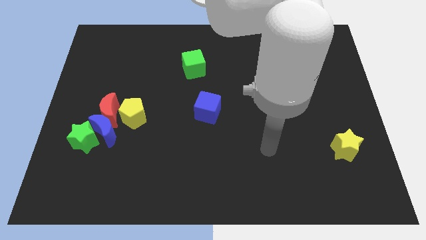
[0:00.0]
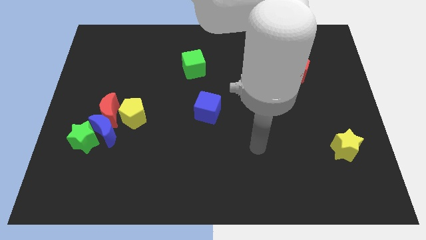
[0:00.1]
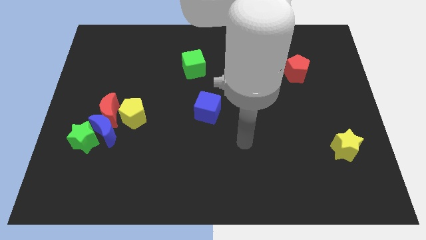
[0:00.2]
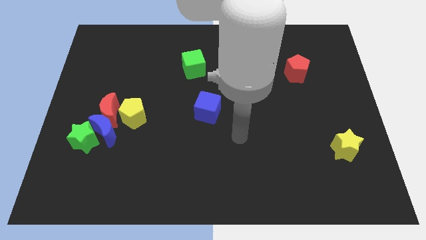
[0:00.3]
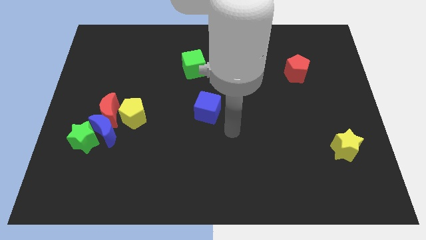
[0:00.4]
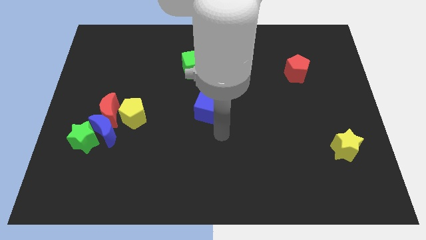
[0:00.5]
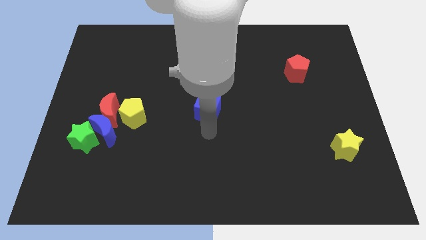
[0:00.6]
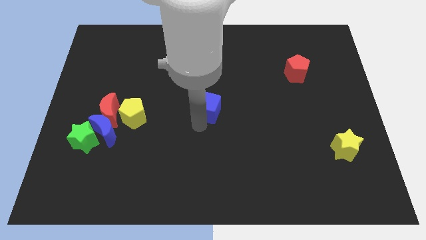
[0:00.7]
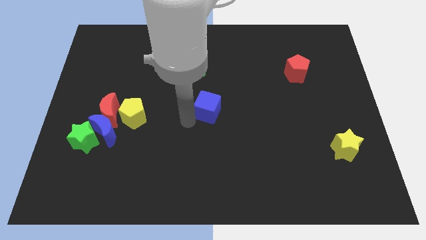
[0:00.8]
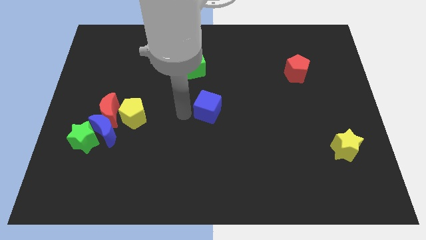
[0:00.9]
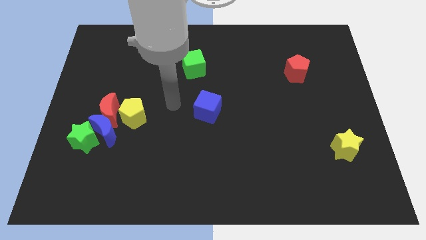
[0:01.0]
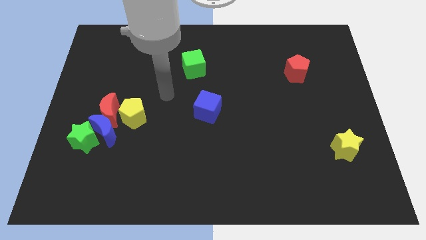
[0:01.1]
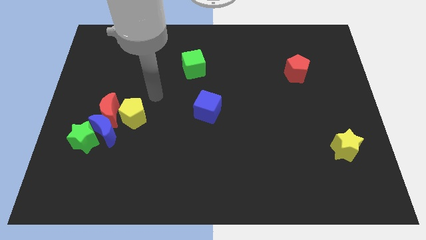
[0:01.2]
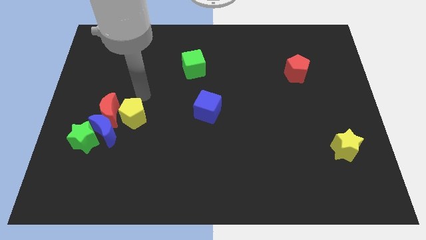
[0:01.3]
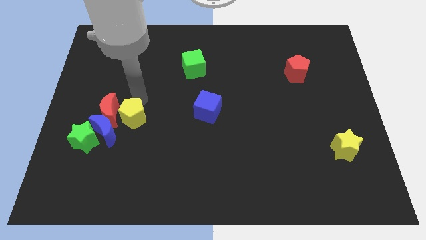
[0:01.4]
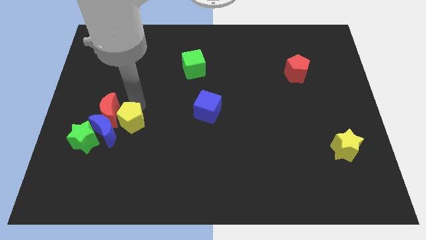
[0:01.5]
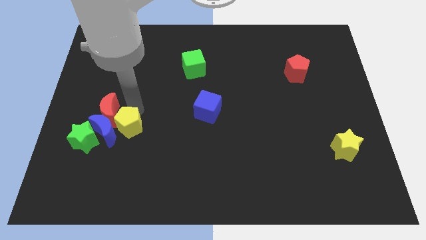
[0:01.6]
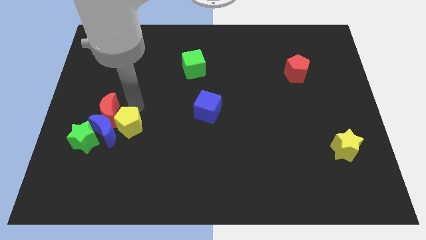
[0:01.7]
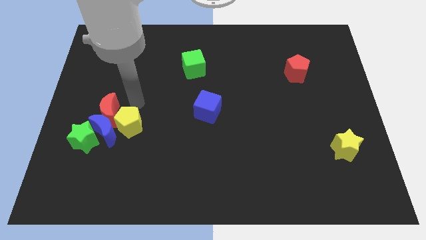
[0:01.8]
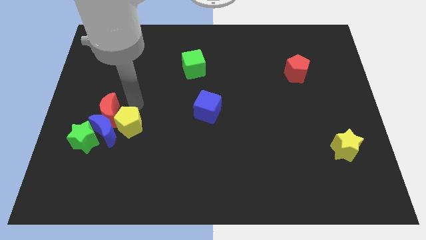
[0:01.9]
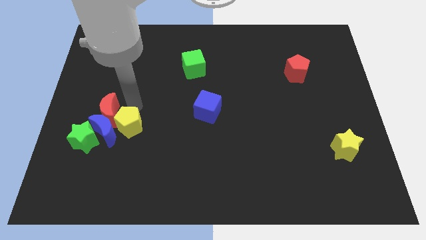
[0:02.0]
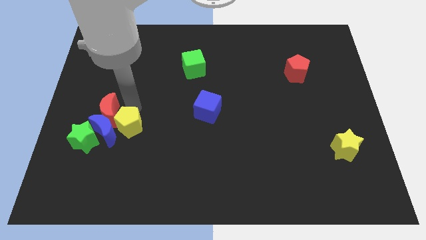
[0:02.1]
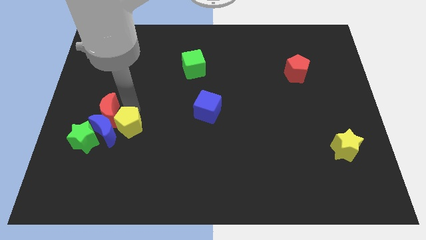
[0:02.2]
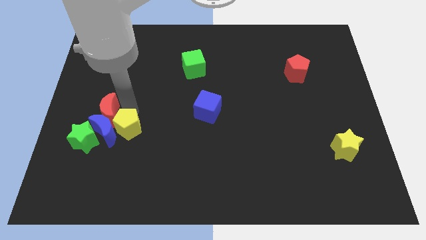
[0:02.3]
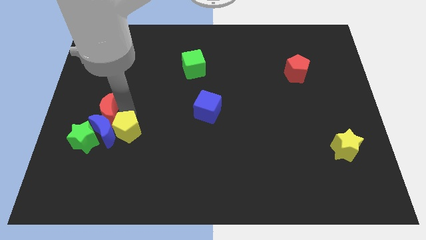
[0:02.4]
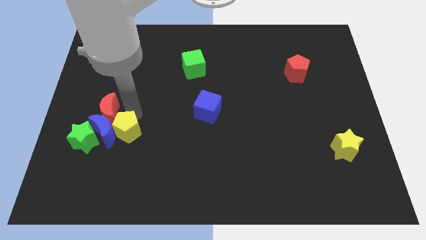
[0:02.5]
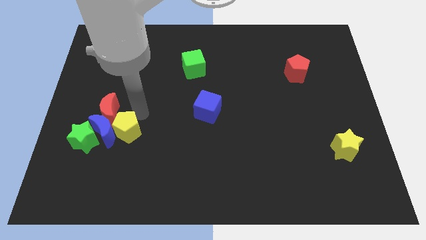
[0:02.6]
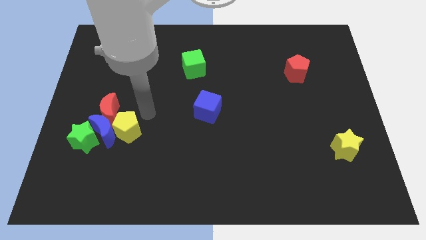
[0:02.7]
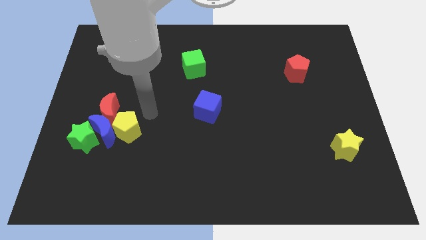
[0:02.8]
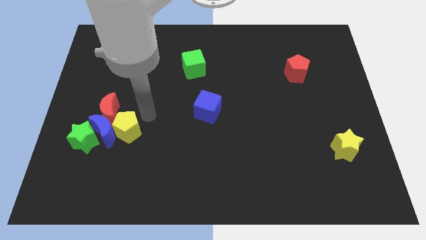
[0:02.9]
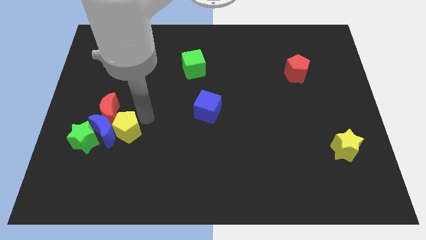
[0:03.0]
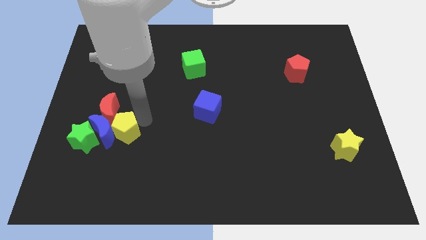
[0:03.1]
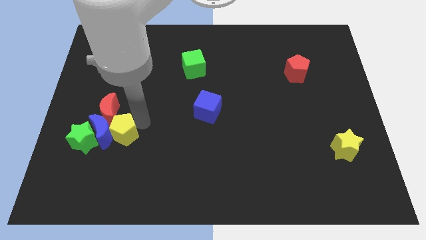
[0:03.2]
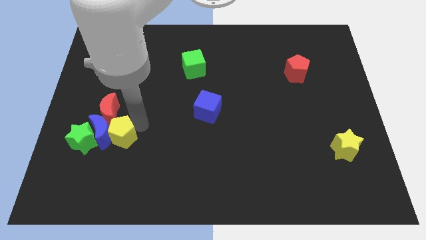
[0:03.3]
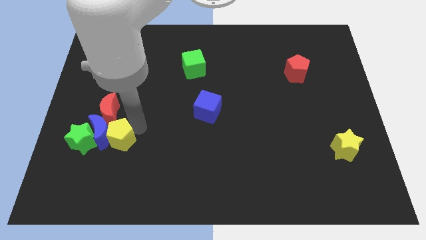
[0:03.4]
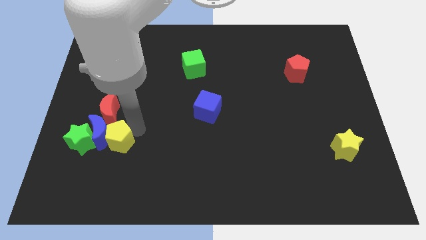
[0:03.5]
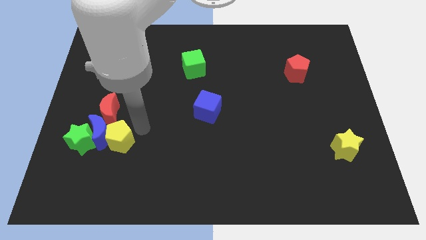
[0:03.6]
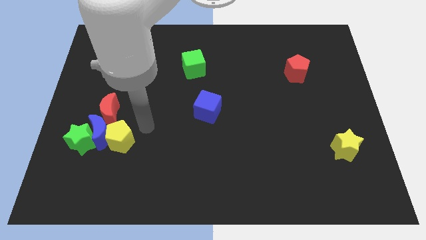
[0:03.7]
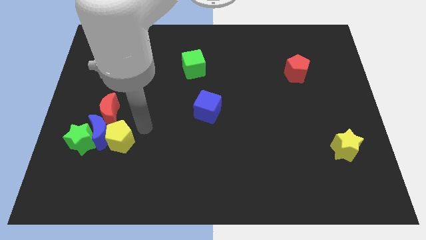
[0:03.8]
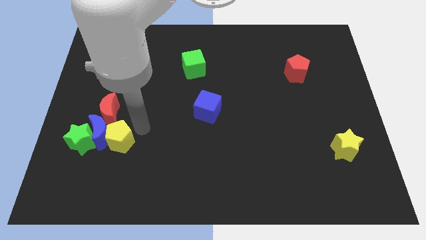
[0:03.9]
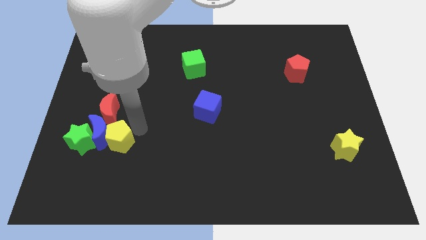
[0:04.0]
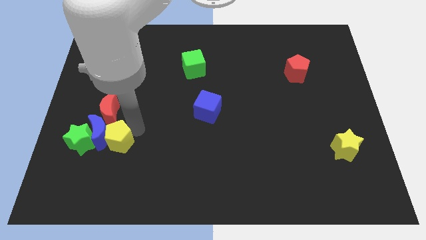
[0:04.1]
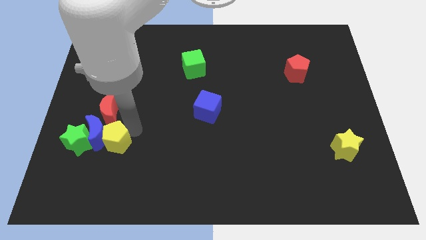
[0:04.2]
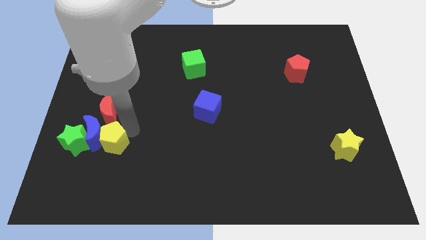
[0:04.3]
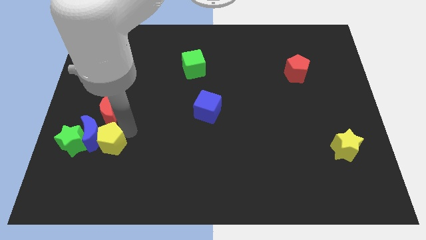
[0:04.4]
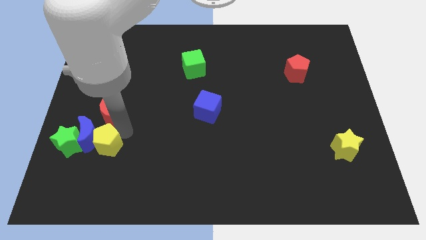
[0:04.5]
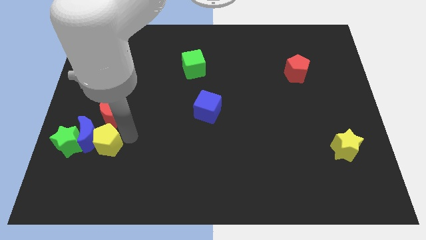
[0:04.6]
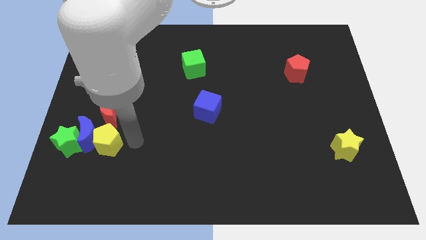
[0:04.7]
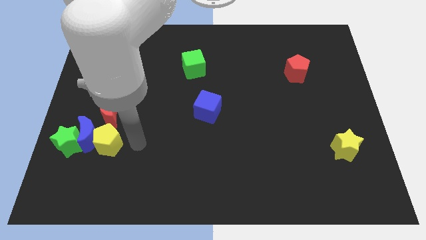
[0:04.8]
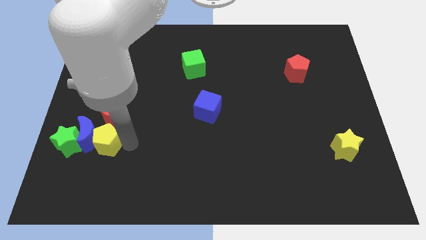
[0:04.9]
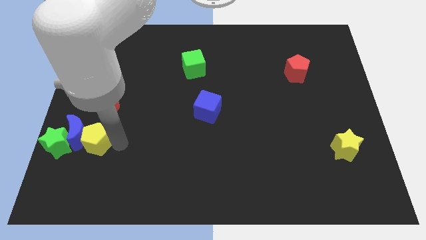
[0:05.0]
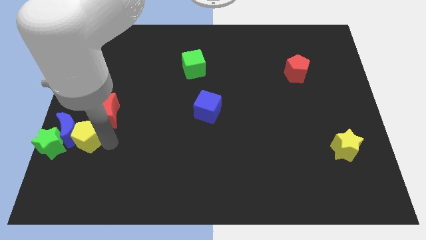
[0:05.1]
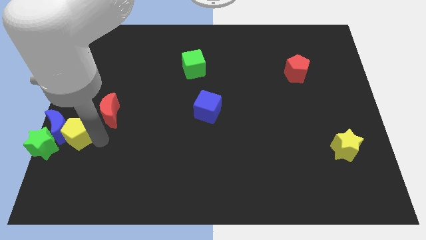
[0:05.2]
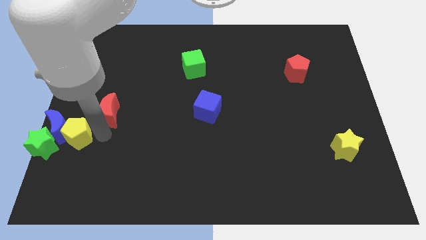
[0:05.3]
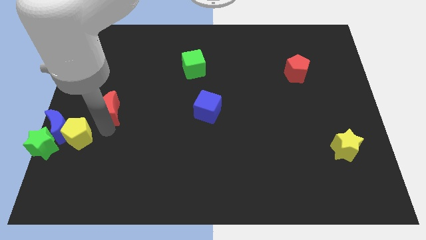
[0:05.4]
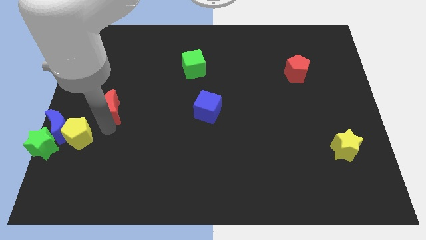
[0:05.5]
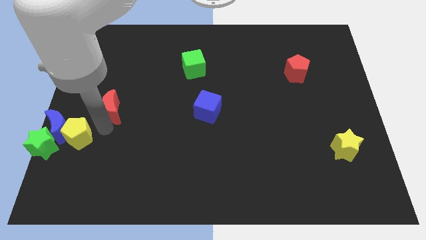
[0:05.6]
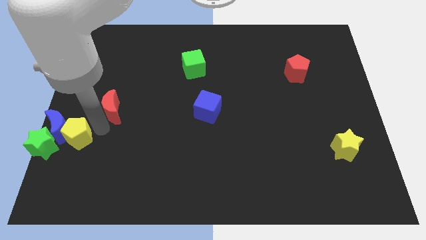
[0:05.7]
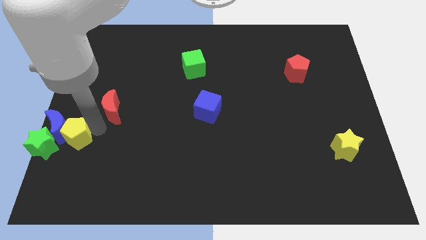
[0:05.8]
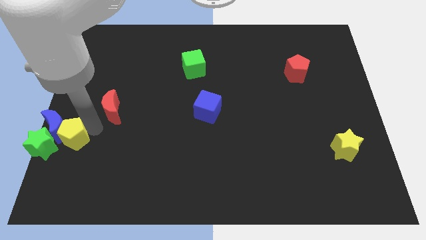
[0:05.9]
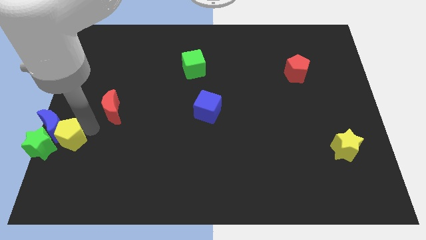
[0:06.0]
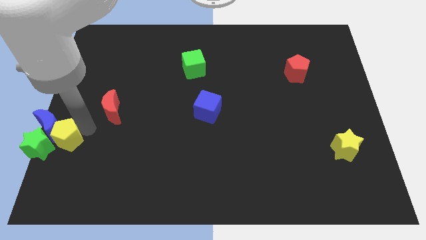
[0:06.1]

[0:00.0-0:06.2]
push the yellow pentagon to the green star

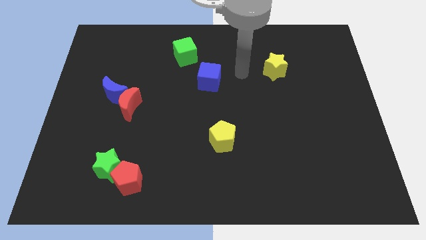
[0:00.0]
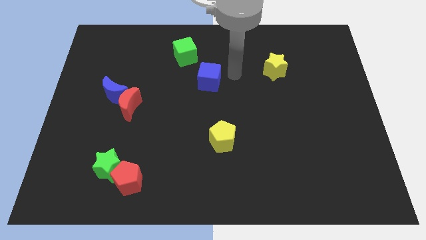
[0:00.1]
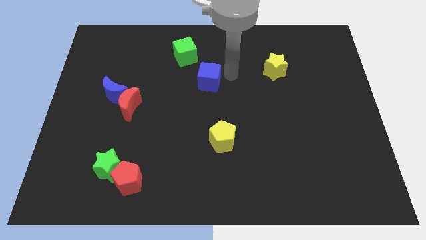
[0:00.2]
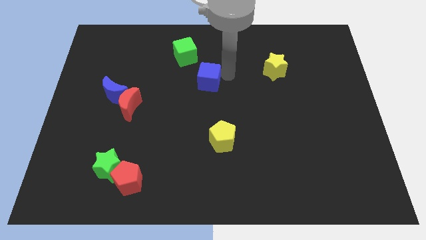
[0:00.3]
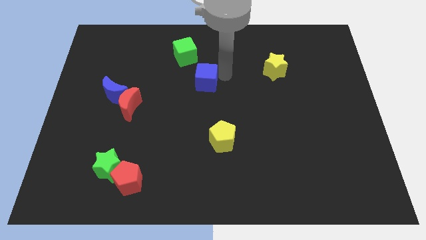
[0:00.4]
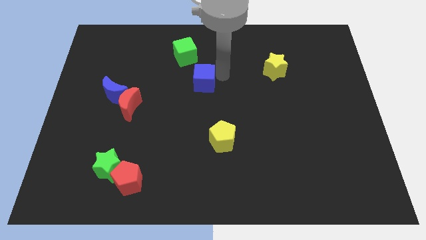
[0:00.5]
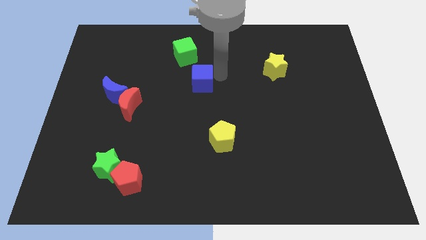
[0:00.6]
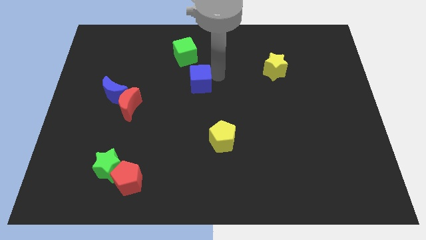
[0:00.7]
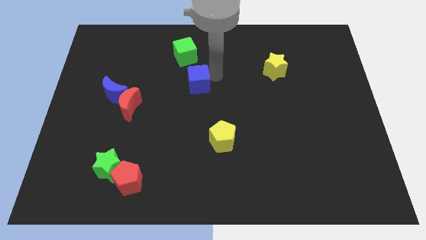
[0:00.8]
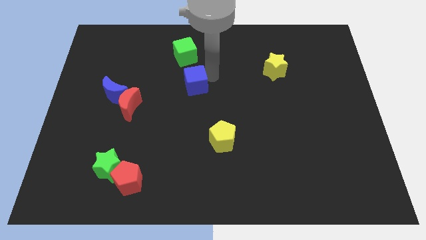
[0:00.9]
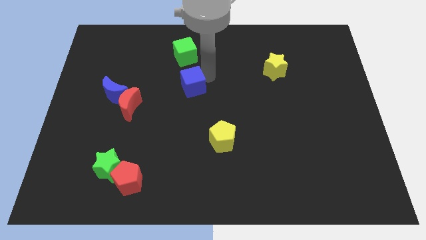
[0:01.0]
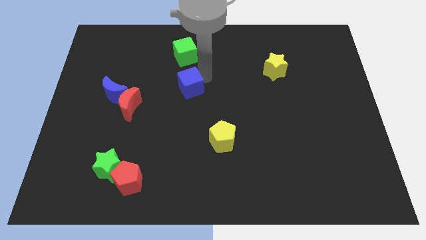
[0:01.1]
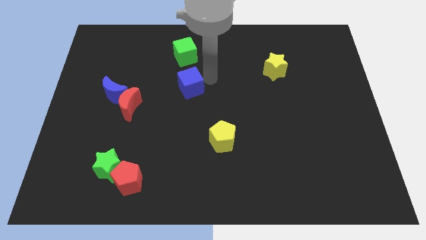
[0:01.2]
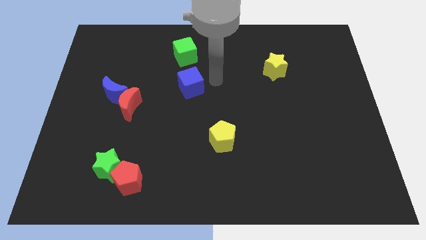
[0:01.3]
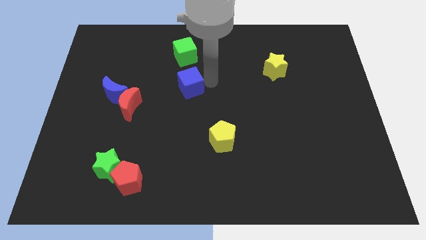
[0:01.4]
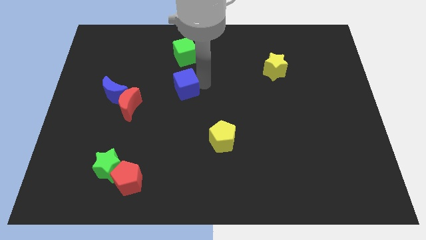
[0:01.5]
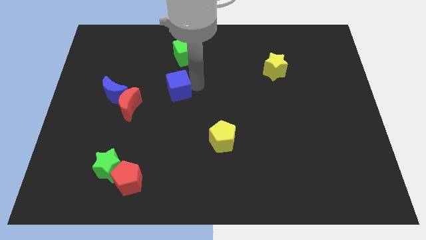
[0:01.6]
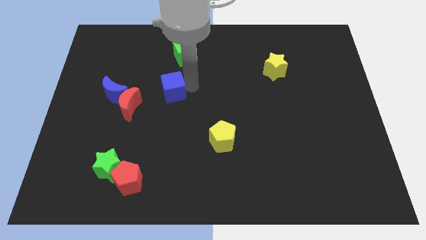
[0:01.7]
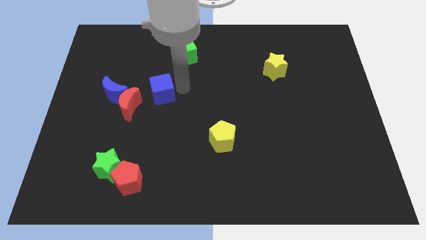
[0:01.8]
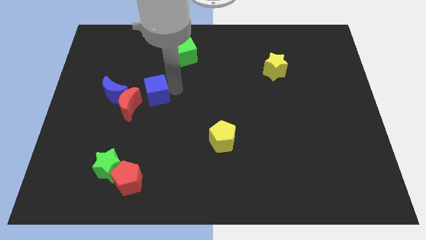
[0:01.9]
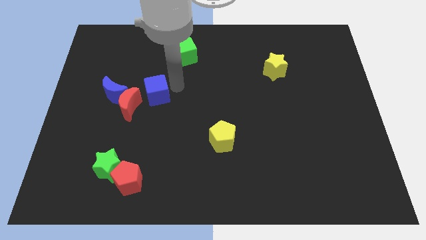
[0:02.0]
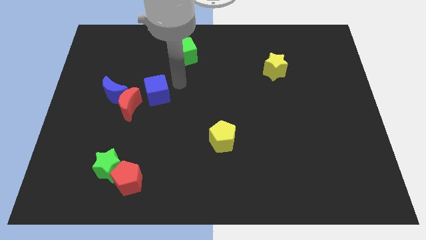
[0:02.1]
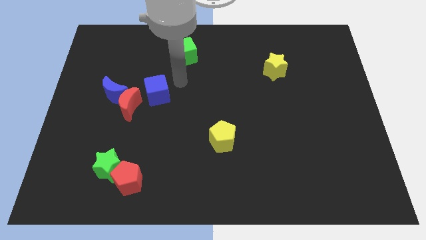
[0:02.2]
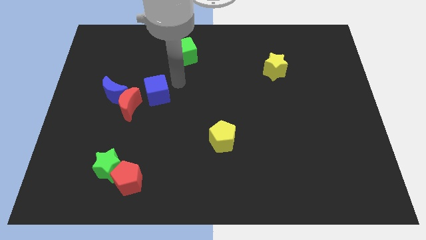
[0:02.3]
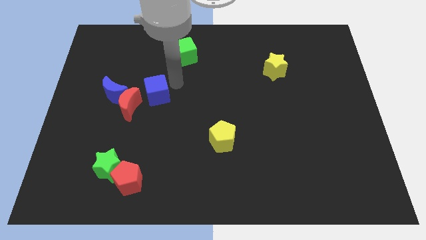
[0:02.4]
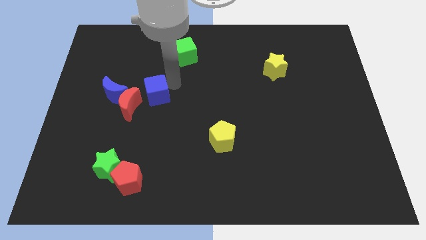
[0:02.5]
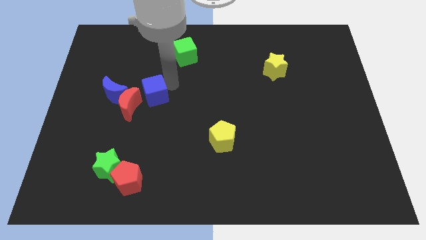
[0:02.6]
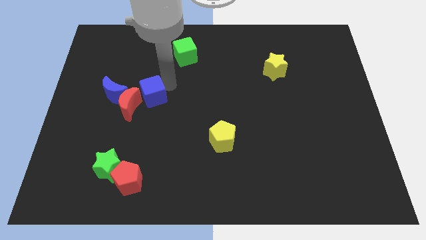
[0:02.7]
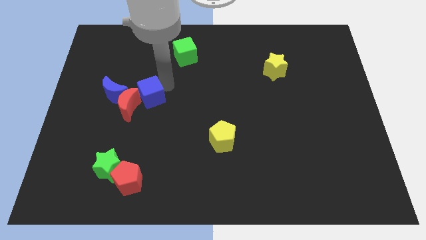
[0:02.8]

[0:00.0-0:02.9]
put the blue cube towards the red moon
